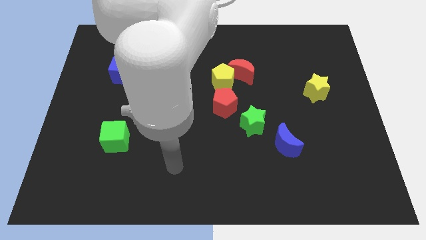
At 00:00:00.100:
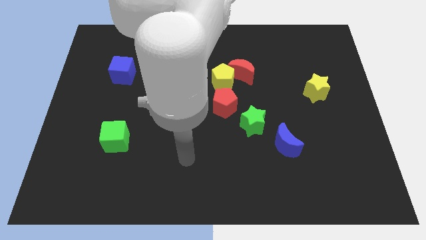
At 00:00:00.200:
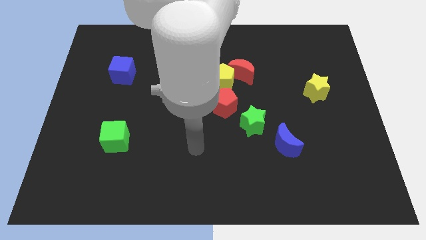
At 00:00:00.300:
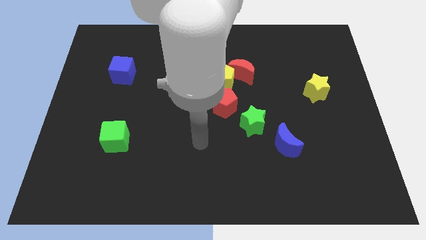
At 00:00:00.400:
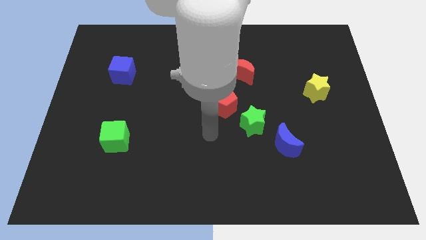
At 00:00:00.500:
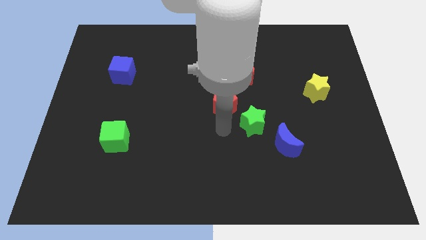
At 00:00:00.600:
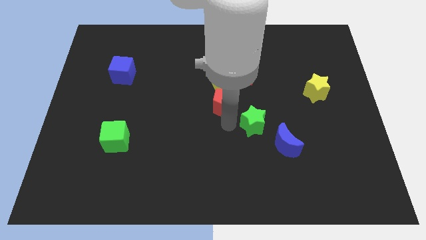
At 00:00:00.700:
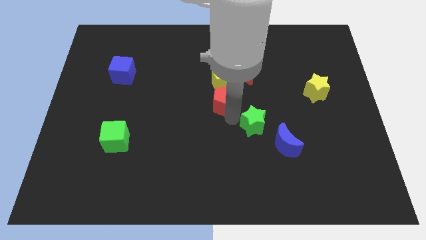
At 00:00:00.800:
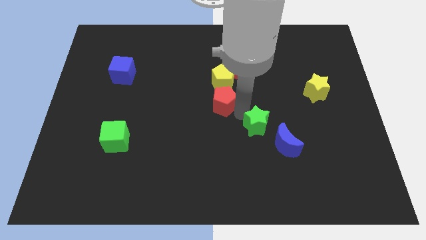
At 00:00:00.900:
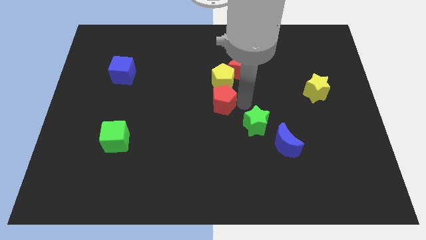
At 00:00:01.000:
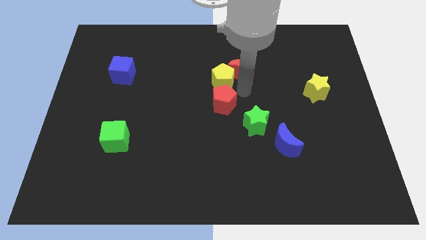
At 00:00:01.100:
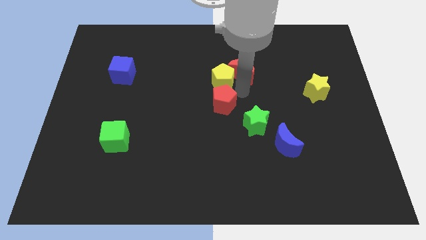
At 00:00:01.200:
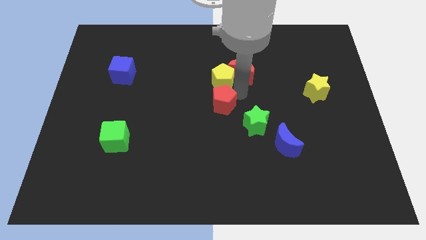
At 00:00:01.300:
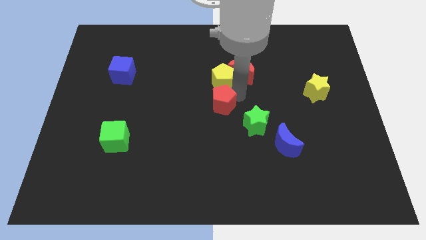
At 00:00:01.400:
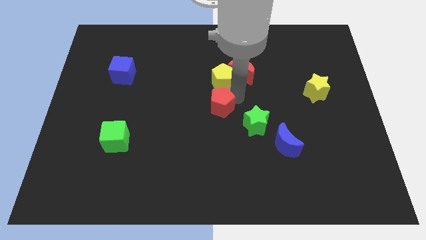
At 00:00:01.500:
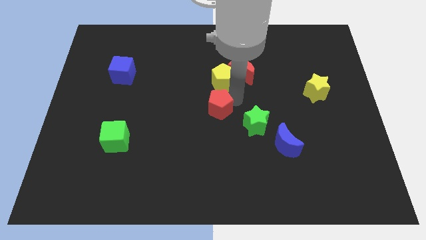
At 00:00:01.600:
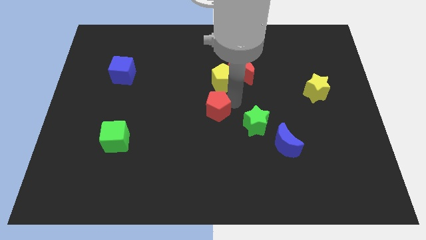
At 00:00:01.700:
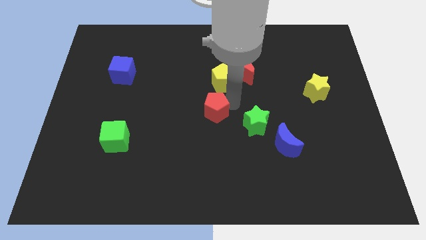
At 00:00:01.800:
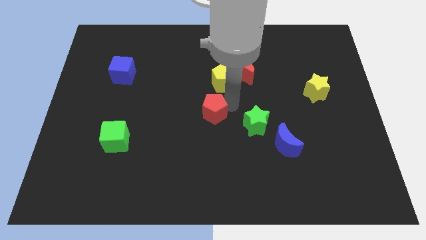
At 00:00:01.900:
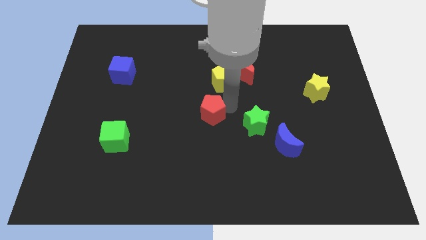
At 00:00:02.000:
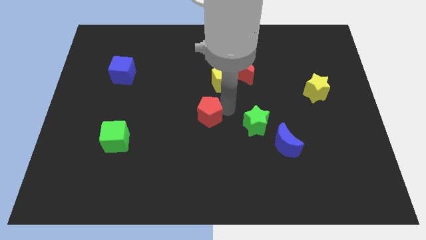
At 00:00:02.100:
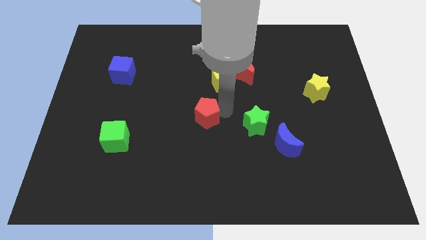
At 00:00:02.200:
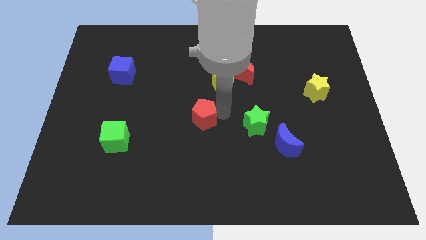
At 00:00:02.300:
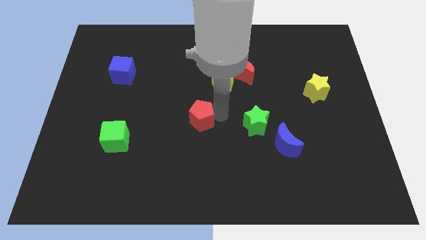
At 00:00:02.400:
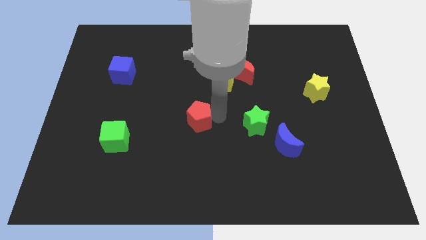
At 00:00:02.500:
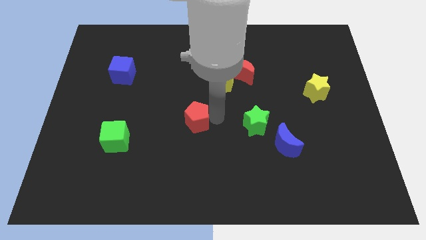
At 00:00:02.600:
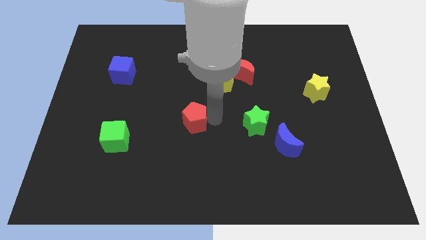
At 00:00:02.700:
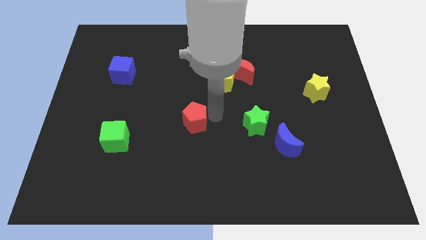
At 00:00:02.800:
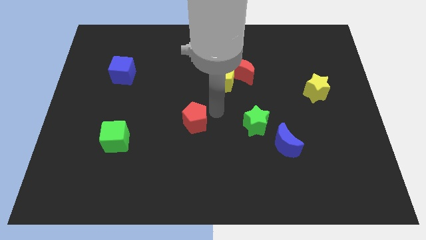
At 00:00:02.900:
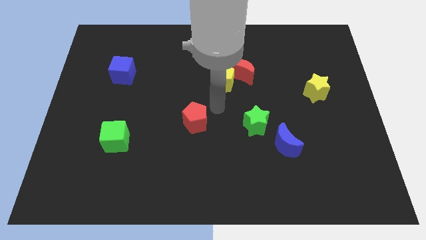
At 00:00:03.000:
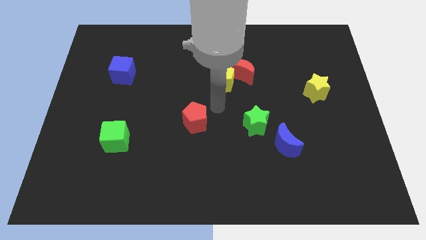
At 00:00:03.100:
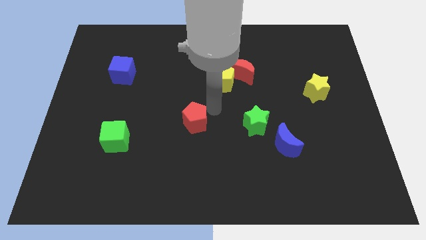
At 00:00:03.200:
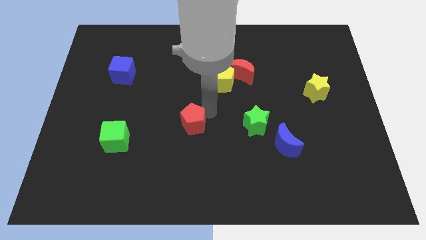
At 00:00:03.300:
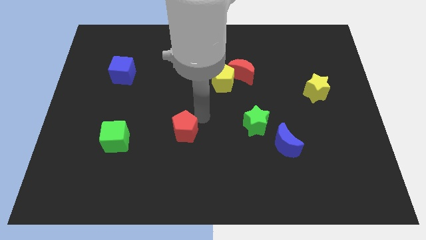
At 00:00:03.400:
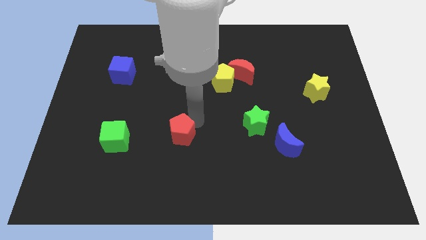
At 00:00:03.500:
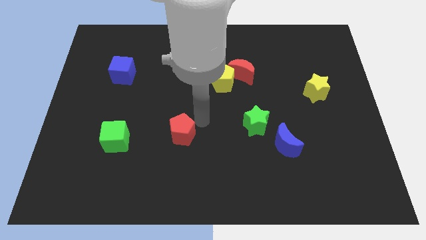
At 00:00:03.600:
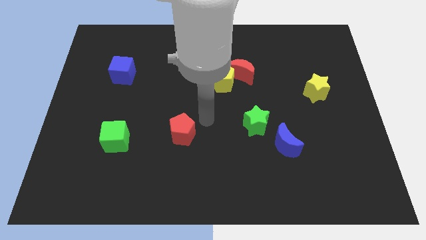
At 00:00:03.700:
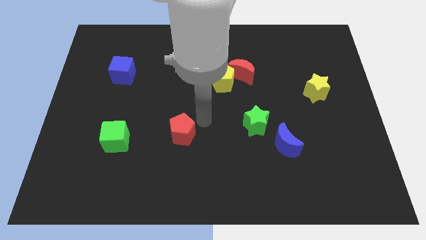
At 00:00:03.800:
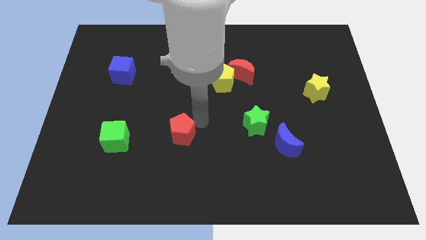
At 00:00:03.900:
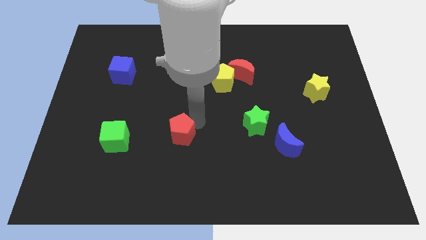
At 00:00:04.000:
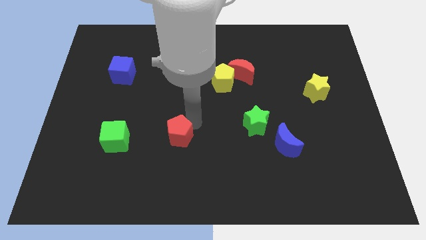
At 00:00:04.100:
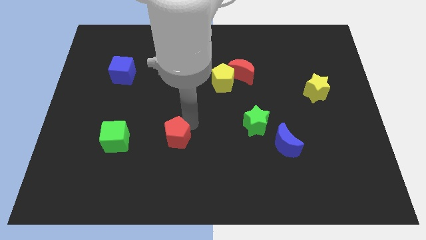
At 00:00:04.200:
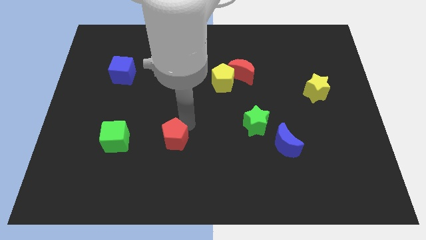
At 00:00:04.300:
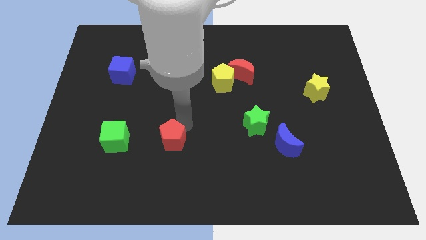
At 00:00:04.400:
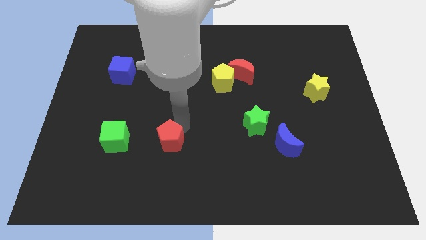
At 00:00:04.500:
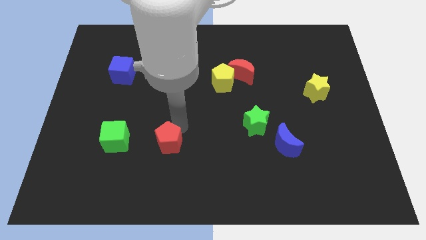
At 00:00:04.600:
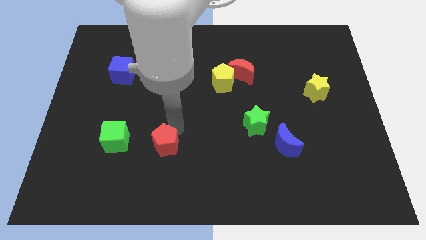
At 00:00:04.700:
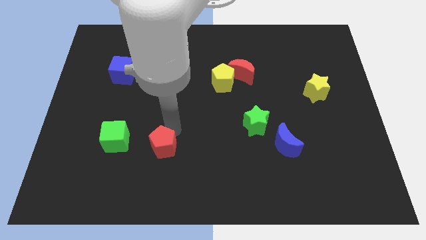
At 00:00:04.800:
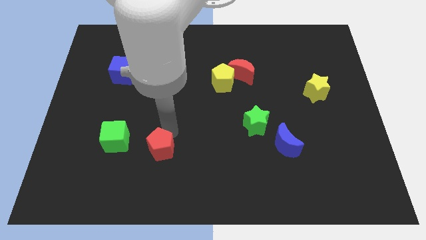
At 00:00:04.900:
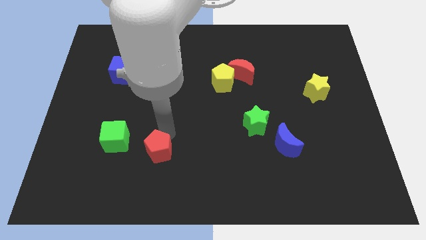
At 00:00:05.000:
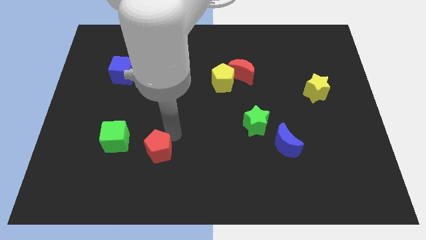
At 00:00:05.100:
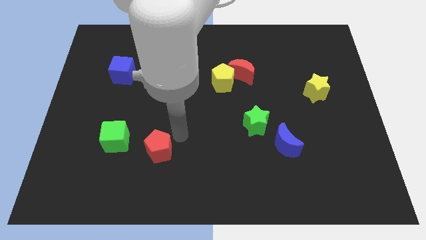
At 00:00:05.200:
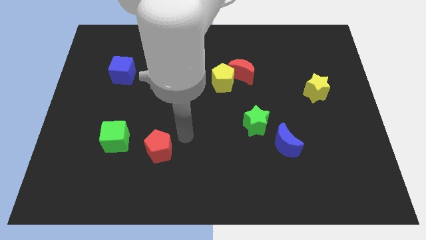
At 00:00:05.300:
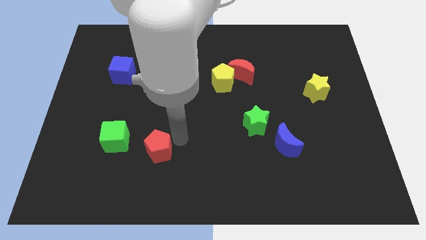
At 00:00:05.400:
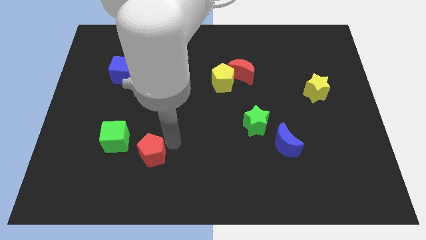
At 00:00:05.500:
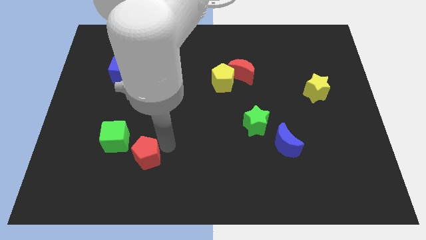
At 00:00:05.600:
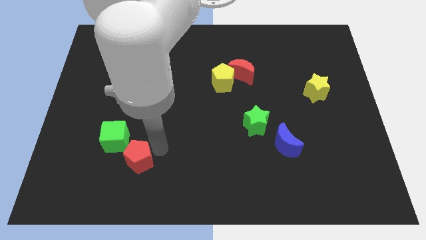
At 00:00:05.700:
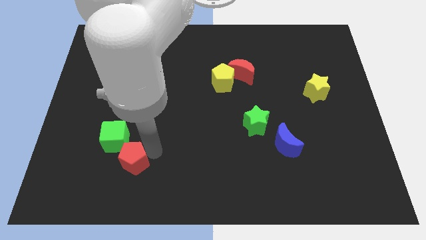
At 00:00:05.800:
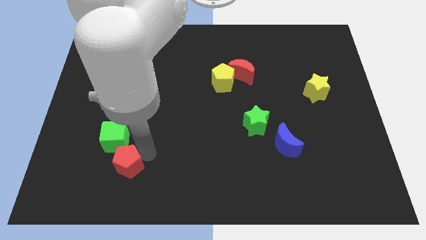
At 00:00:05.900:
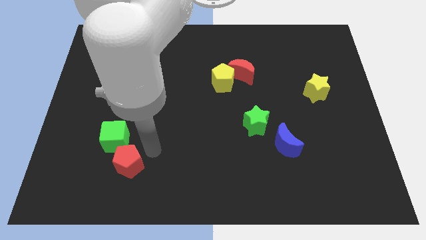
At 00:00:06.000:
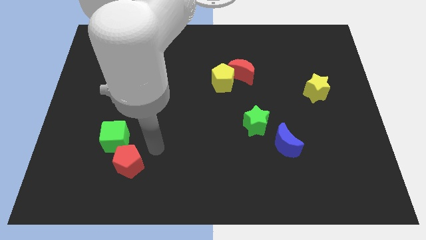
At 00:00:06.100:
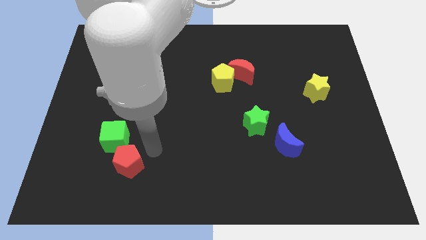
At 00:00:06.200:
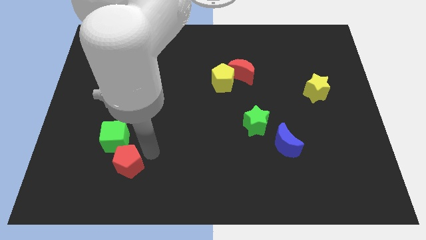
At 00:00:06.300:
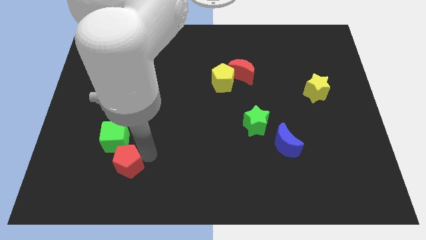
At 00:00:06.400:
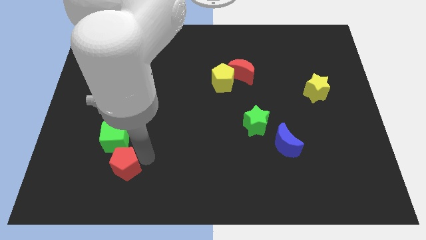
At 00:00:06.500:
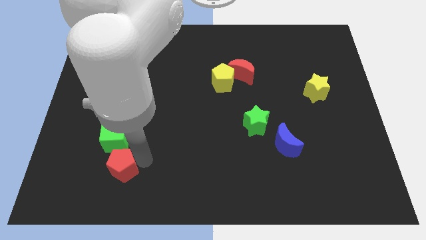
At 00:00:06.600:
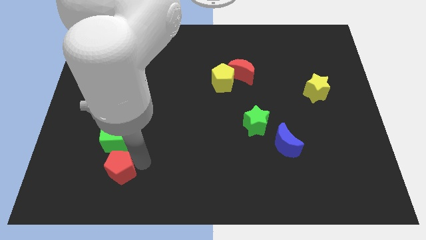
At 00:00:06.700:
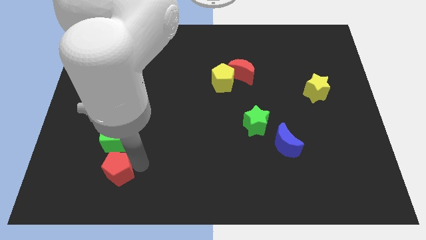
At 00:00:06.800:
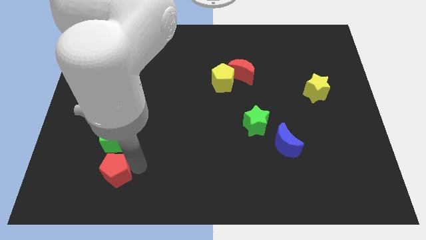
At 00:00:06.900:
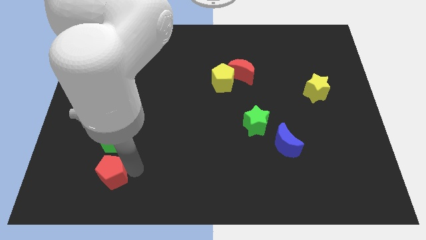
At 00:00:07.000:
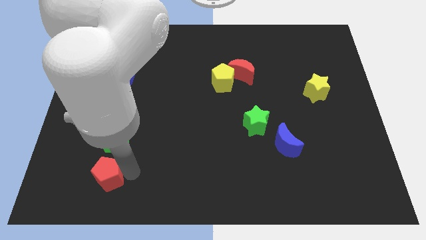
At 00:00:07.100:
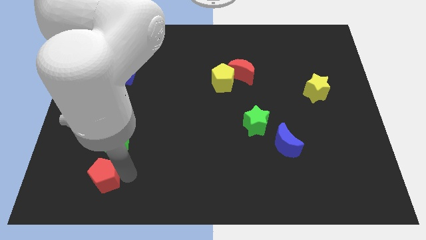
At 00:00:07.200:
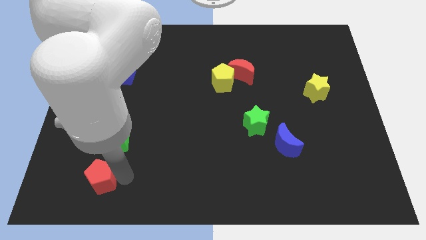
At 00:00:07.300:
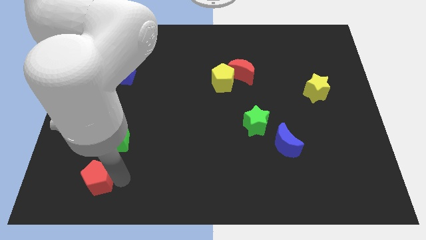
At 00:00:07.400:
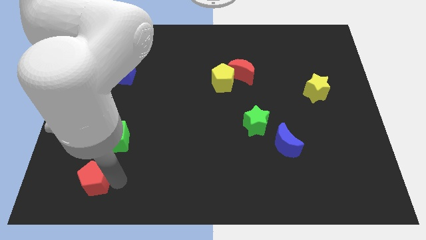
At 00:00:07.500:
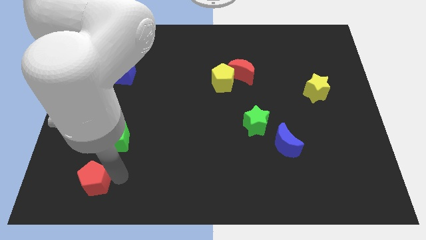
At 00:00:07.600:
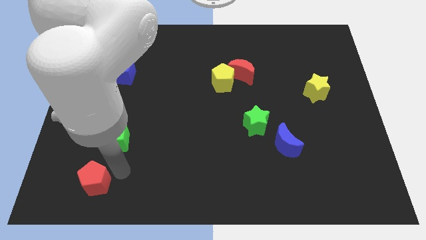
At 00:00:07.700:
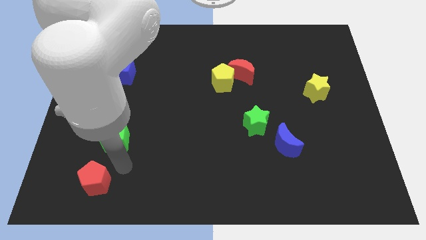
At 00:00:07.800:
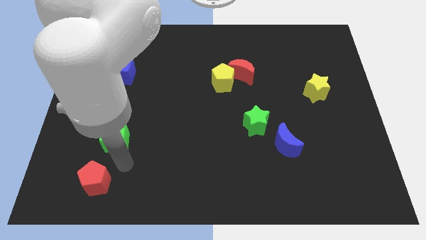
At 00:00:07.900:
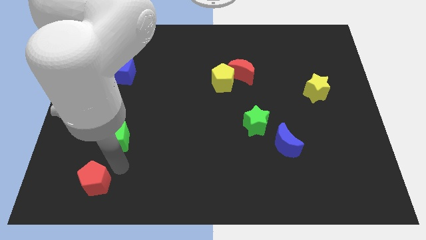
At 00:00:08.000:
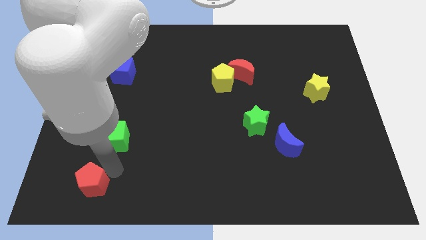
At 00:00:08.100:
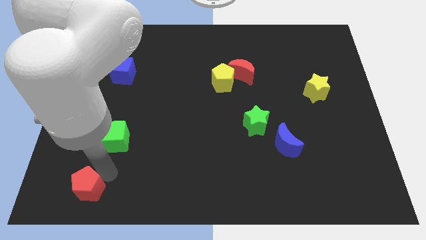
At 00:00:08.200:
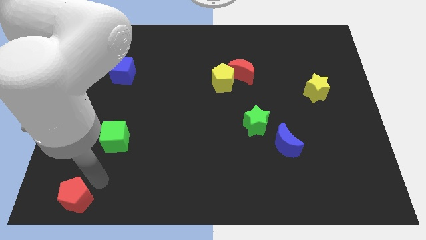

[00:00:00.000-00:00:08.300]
move the red pentagon to the bottom left of the board
